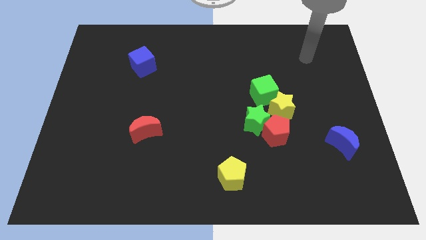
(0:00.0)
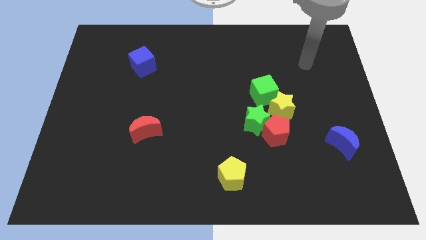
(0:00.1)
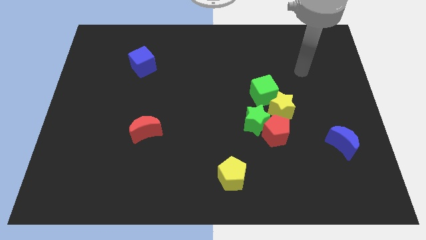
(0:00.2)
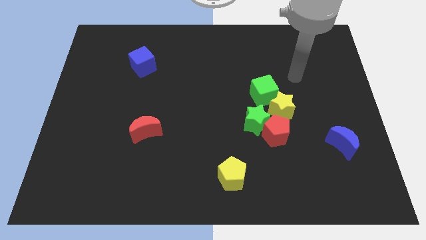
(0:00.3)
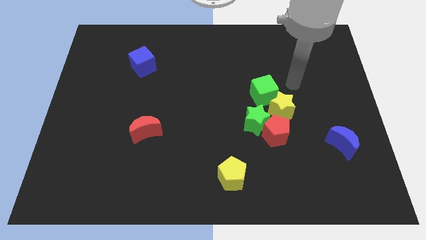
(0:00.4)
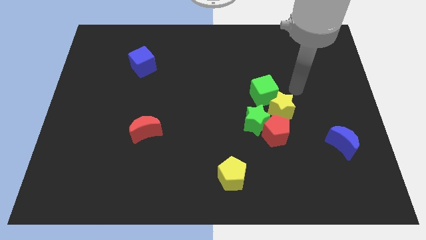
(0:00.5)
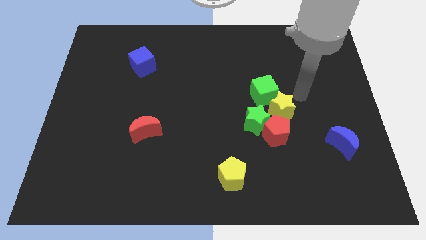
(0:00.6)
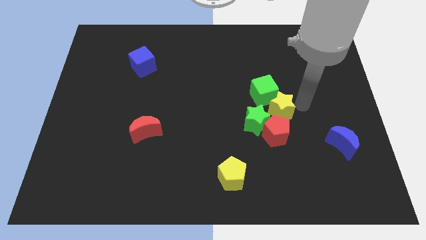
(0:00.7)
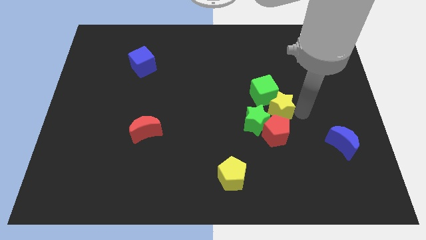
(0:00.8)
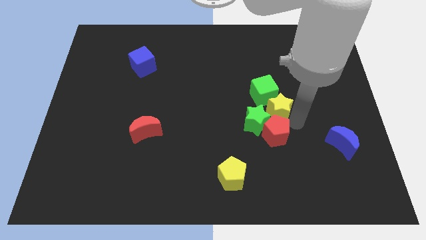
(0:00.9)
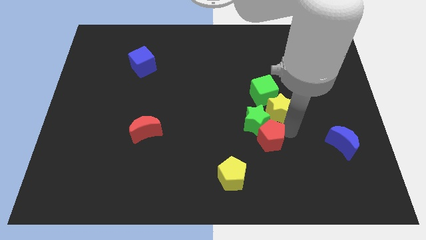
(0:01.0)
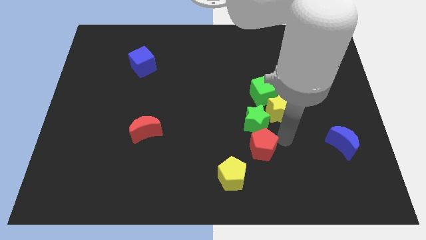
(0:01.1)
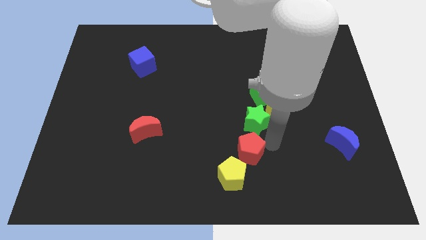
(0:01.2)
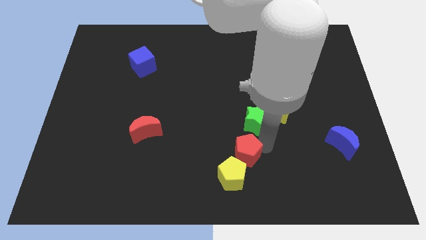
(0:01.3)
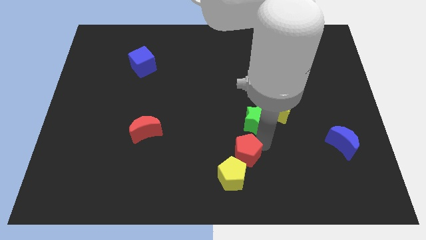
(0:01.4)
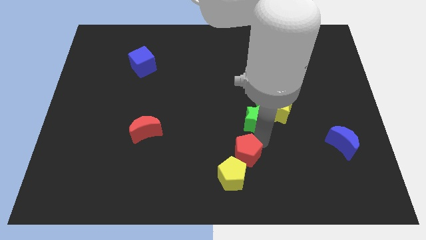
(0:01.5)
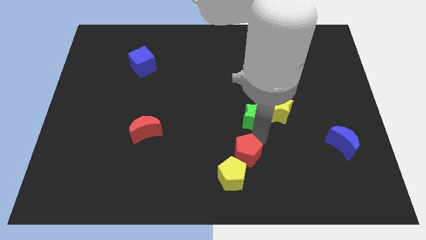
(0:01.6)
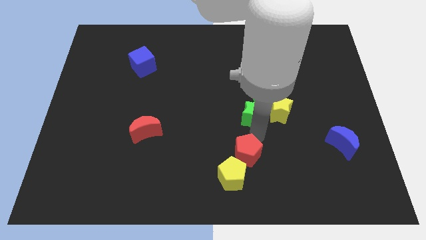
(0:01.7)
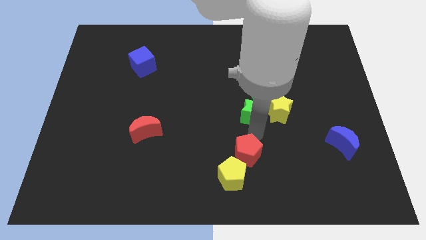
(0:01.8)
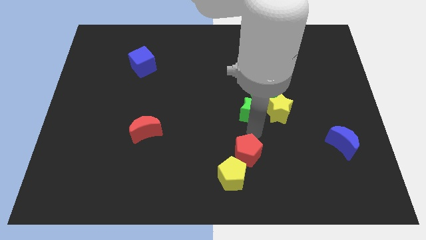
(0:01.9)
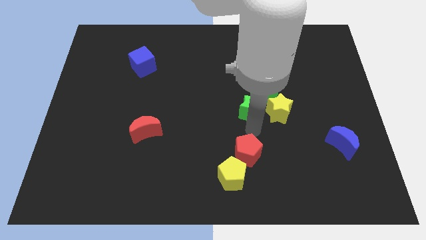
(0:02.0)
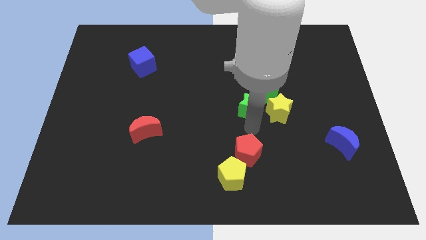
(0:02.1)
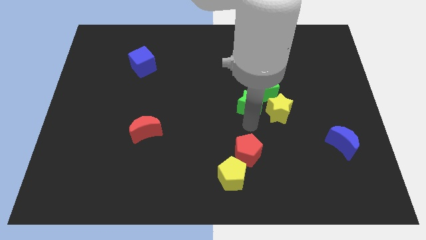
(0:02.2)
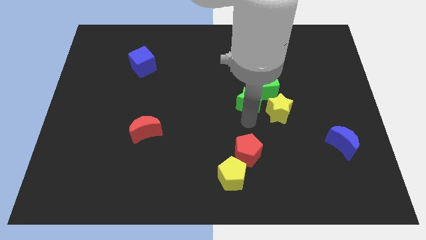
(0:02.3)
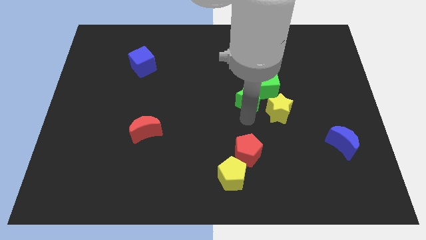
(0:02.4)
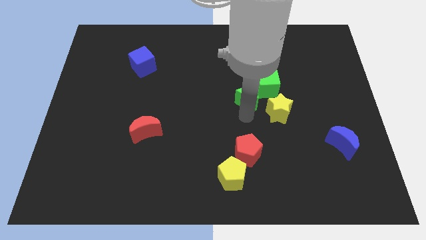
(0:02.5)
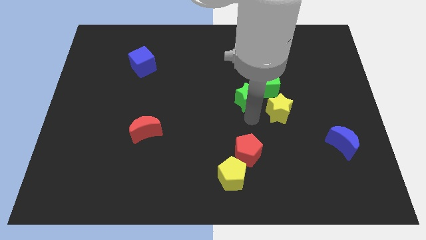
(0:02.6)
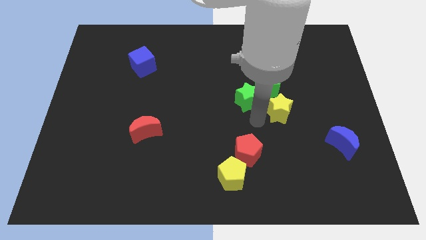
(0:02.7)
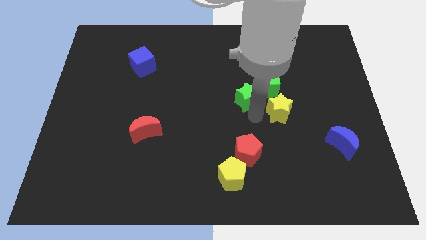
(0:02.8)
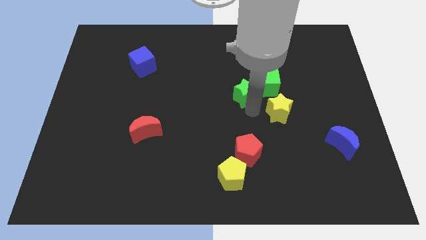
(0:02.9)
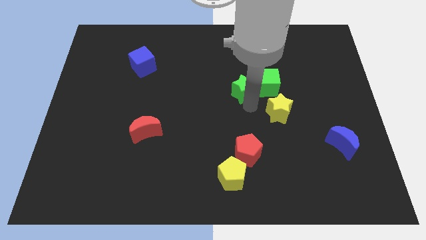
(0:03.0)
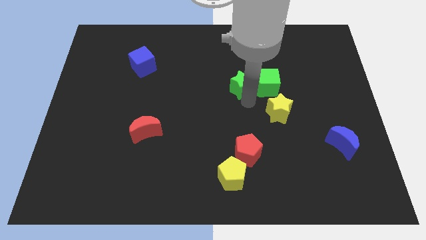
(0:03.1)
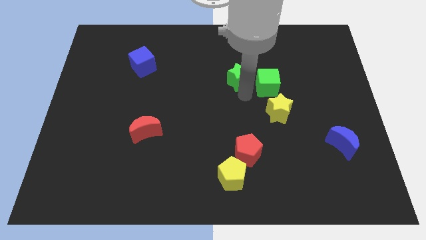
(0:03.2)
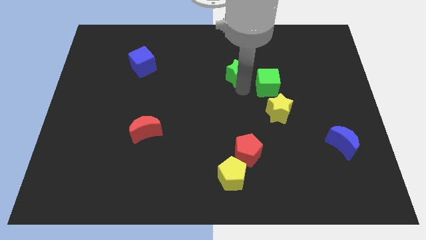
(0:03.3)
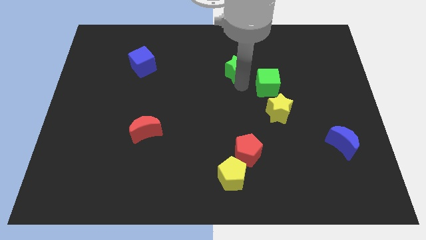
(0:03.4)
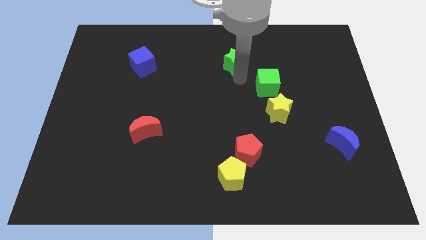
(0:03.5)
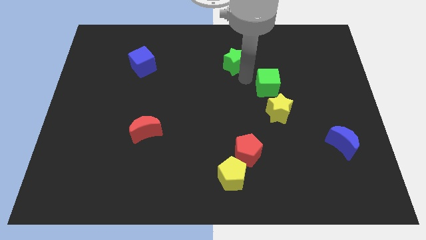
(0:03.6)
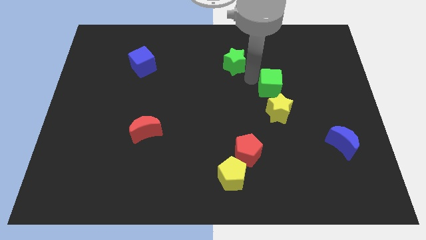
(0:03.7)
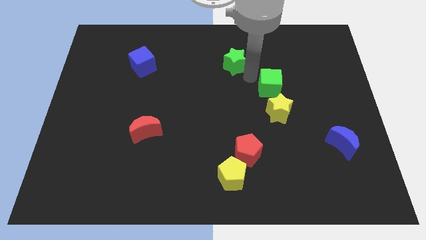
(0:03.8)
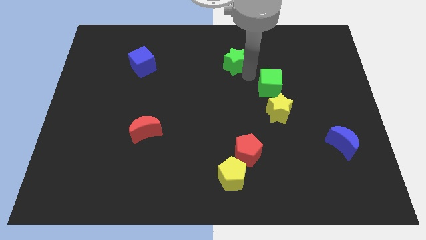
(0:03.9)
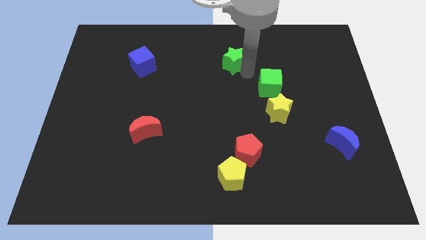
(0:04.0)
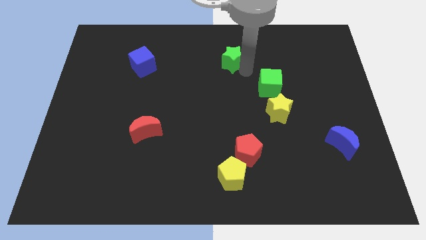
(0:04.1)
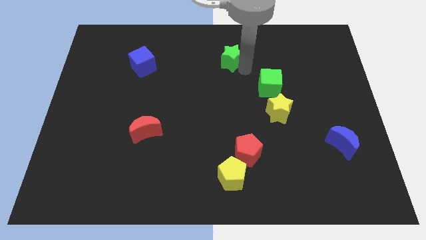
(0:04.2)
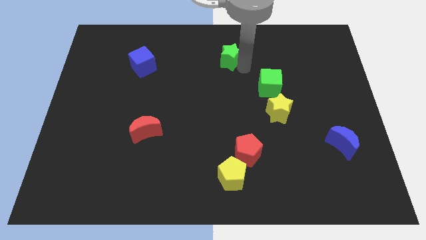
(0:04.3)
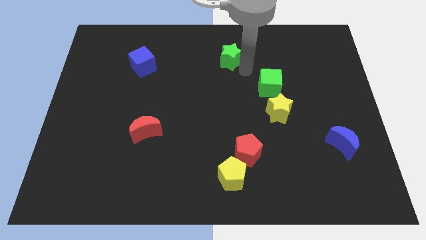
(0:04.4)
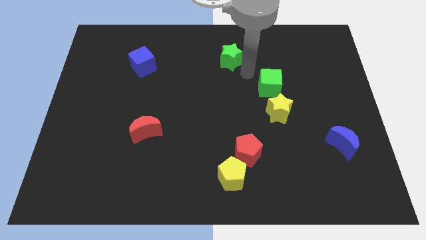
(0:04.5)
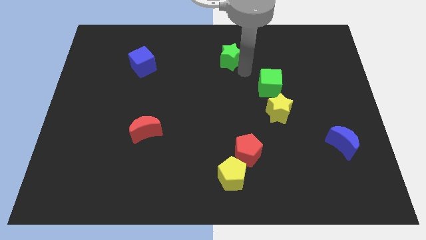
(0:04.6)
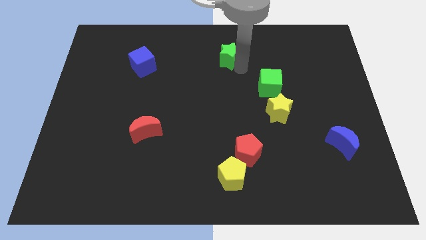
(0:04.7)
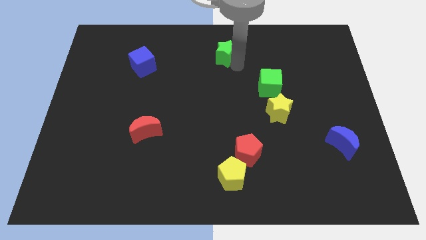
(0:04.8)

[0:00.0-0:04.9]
push the green star to the towards your base
